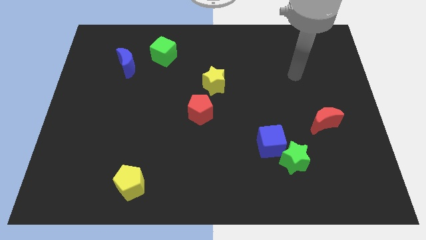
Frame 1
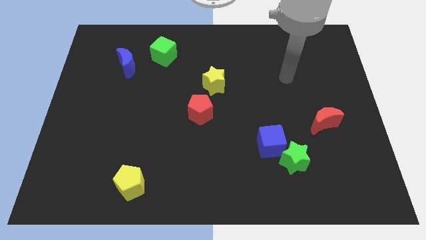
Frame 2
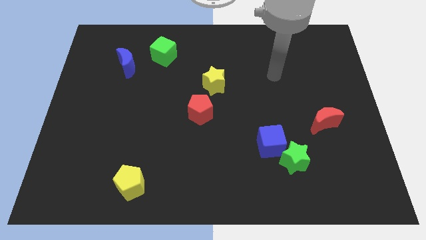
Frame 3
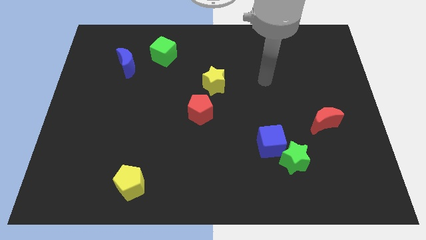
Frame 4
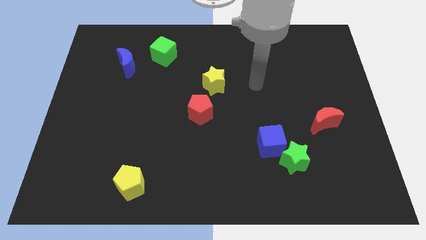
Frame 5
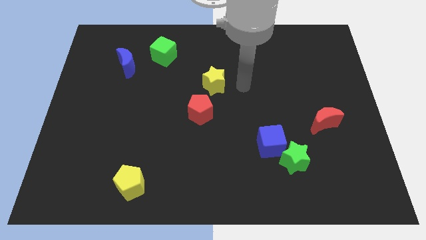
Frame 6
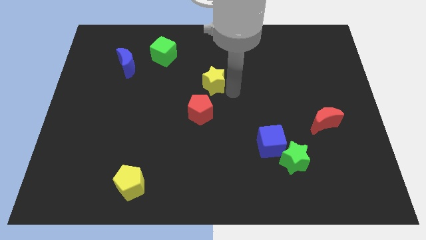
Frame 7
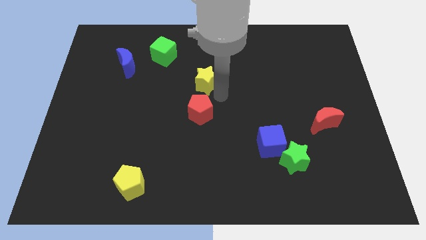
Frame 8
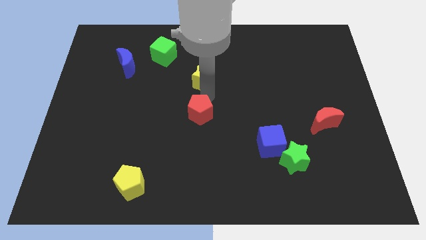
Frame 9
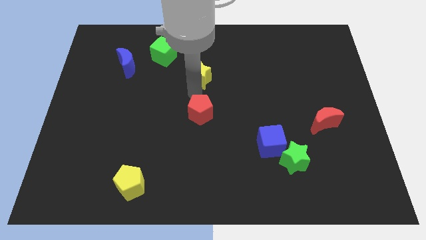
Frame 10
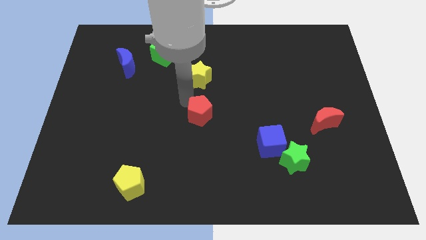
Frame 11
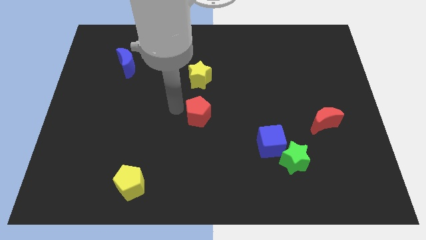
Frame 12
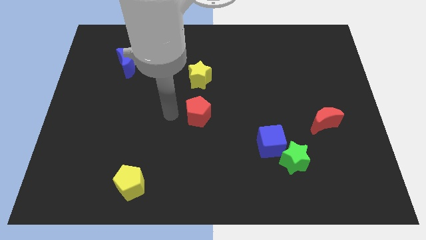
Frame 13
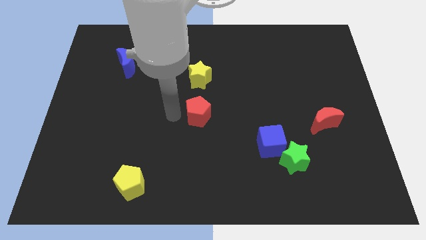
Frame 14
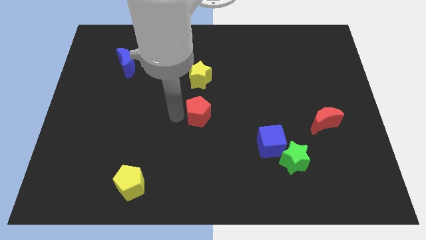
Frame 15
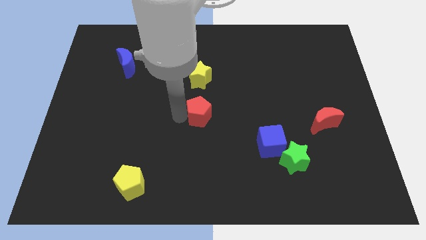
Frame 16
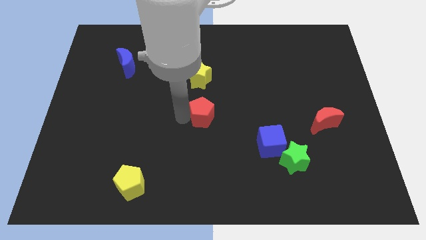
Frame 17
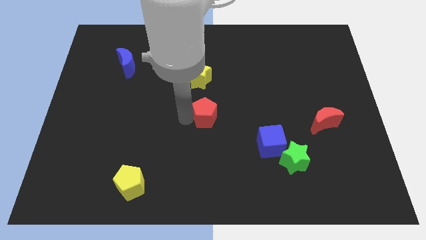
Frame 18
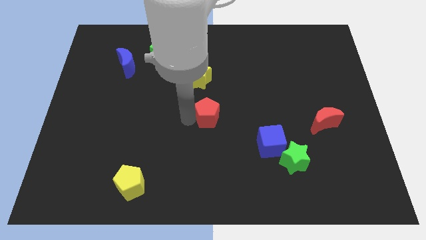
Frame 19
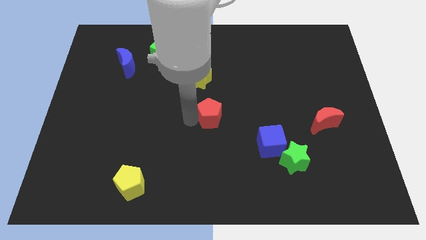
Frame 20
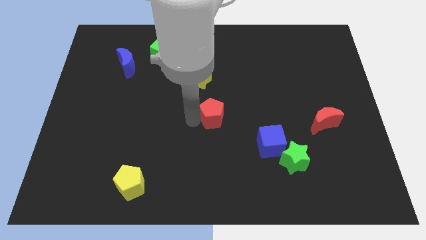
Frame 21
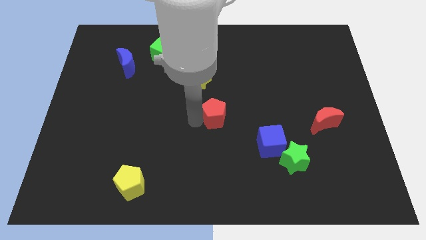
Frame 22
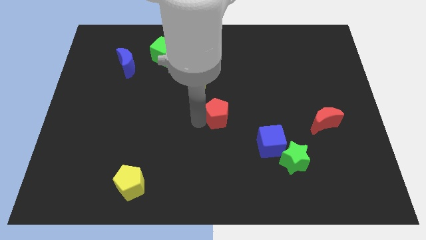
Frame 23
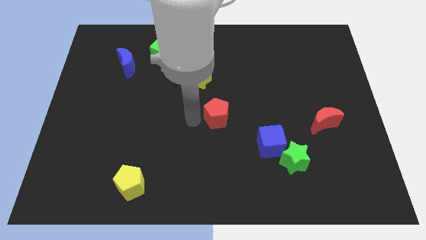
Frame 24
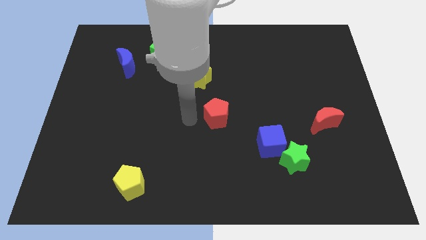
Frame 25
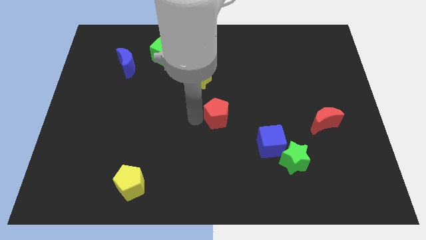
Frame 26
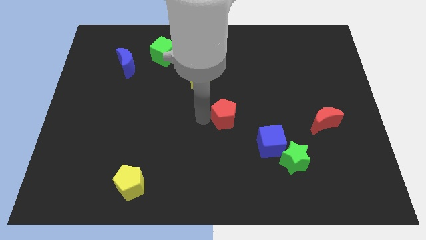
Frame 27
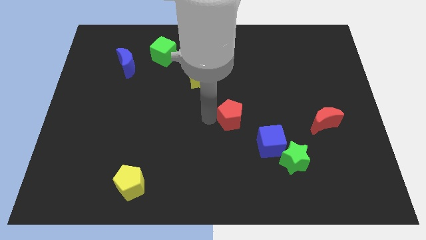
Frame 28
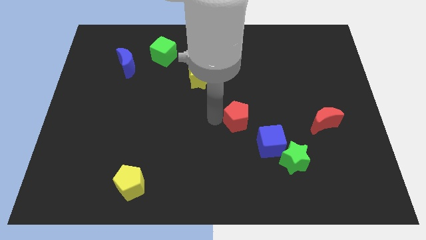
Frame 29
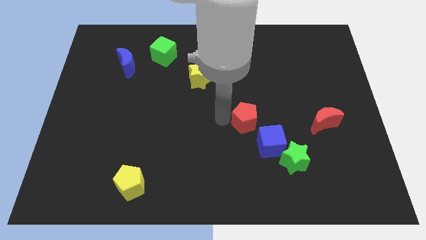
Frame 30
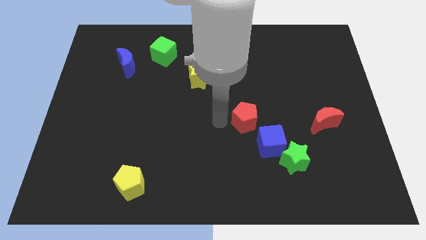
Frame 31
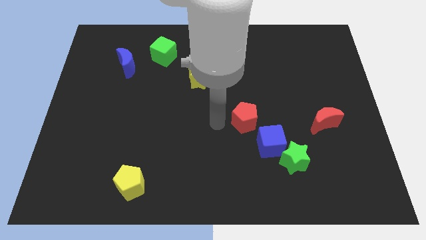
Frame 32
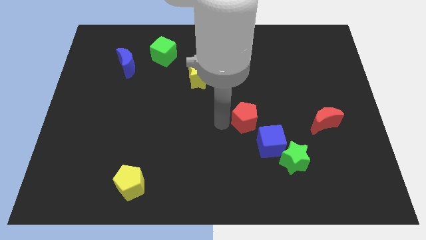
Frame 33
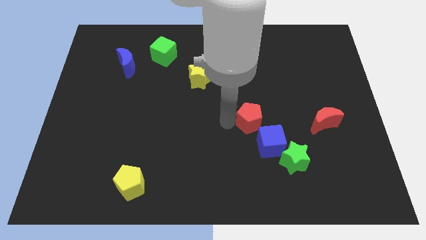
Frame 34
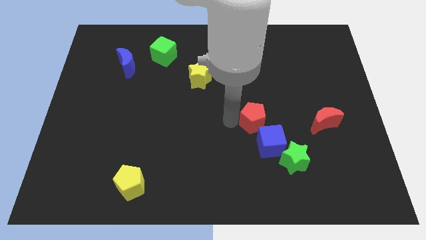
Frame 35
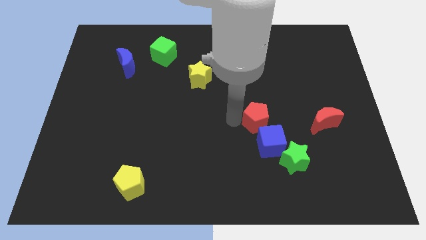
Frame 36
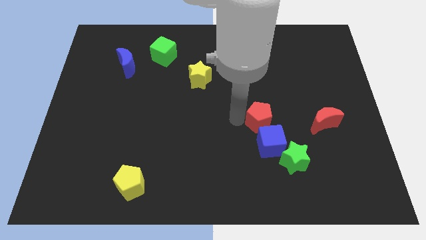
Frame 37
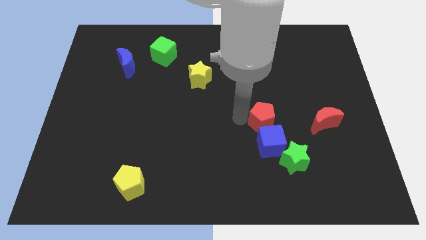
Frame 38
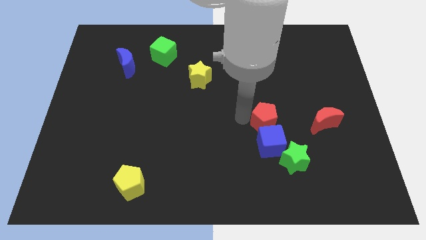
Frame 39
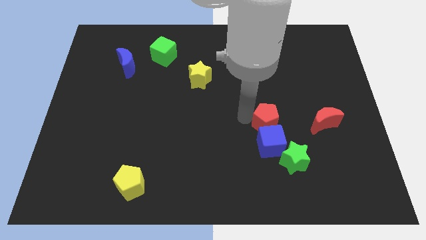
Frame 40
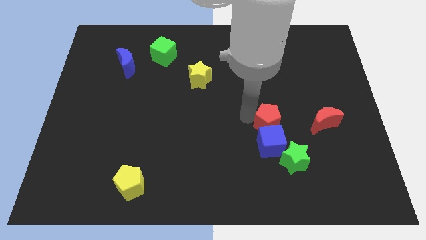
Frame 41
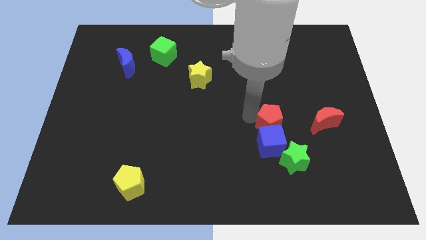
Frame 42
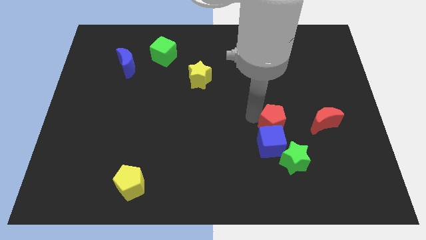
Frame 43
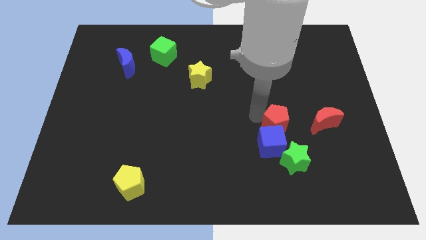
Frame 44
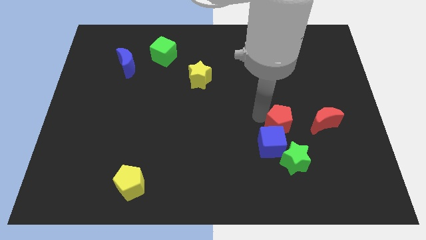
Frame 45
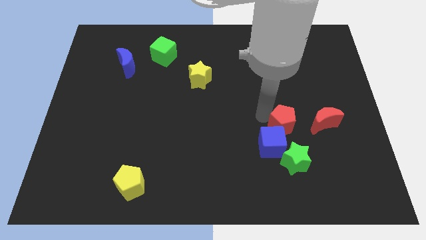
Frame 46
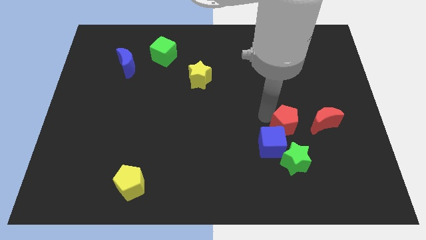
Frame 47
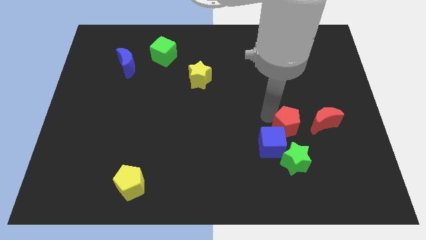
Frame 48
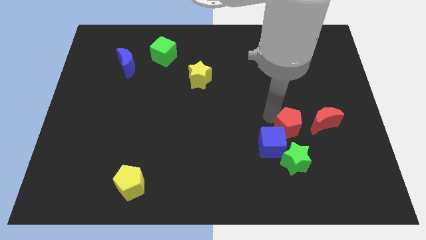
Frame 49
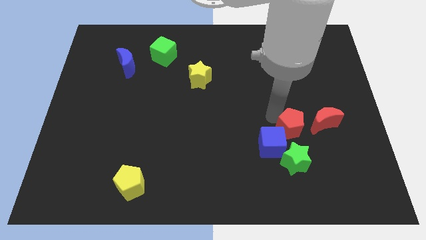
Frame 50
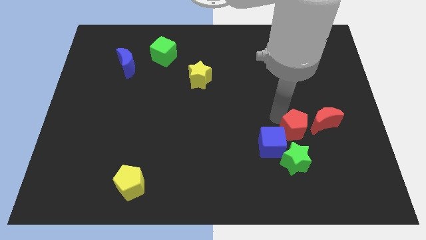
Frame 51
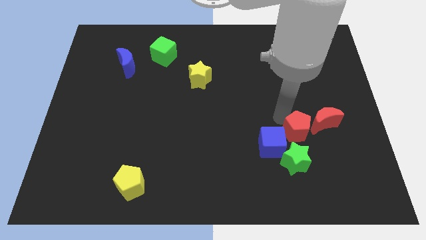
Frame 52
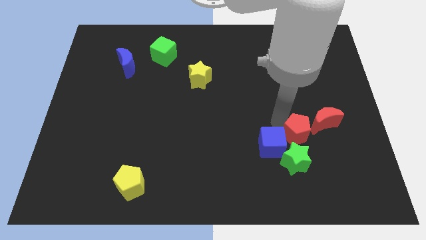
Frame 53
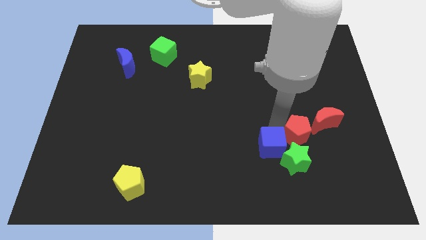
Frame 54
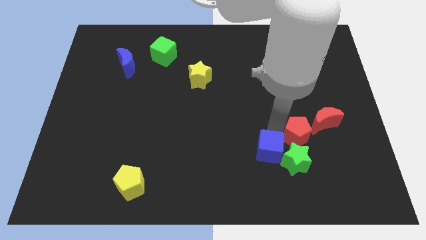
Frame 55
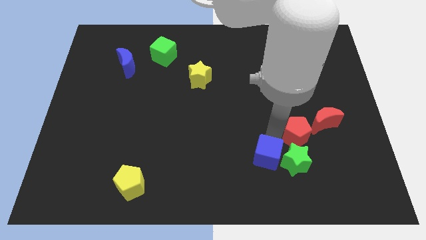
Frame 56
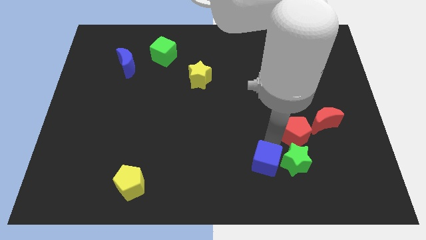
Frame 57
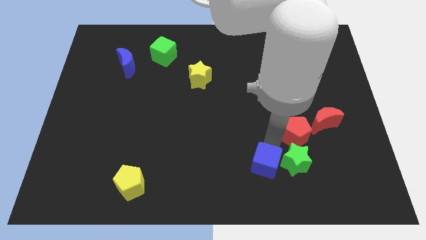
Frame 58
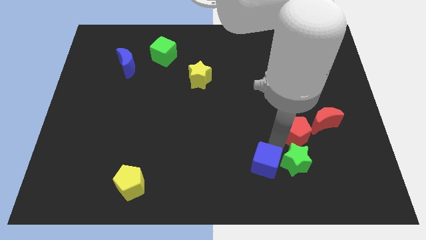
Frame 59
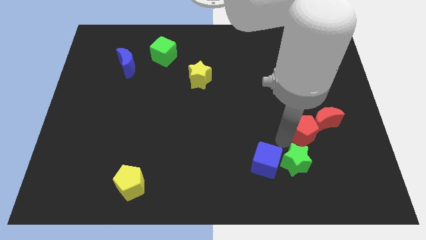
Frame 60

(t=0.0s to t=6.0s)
put the red pentagon close to the red moon

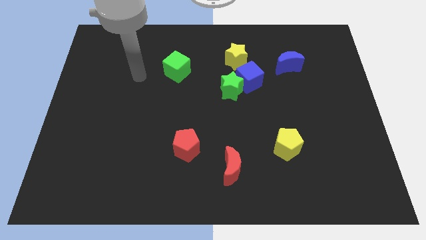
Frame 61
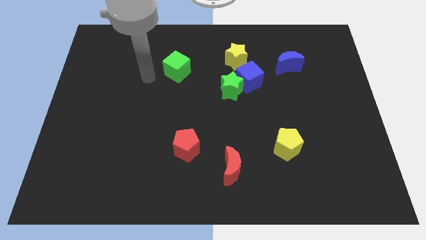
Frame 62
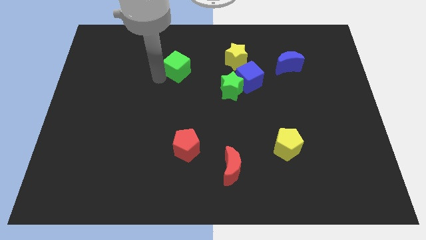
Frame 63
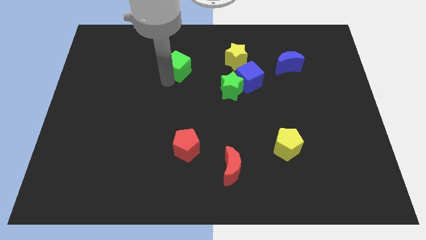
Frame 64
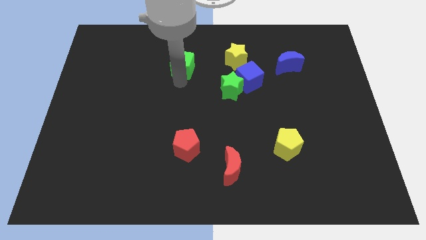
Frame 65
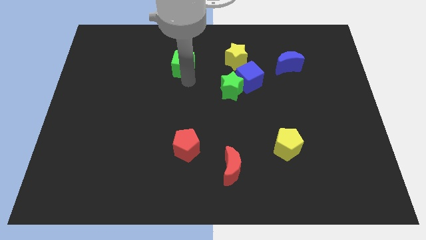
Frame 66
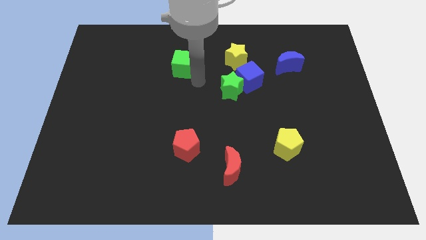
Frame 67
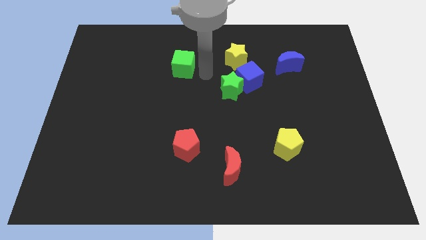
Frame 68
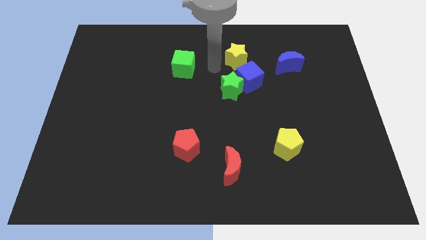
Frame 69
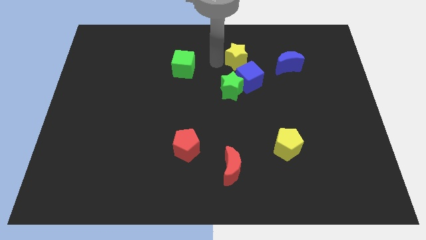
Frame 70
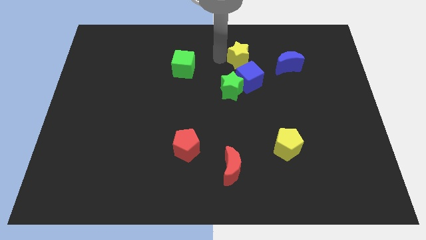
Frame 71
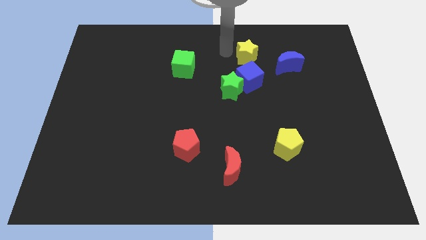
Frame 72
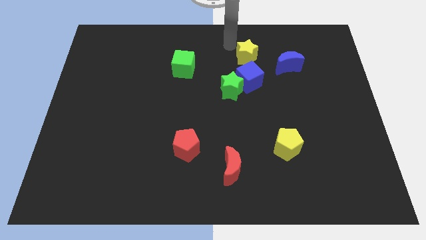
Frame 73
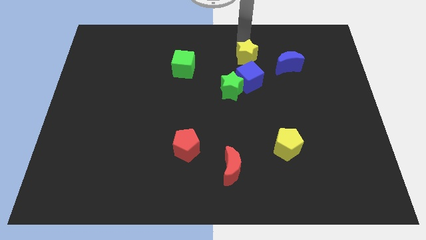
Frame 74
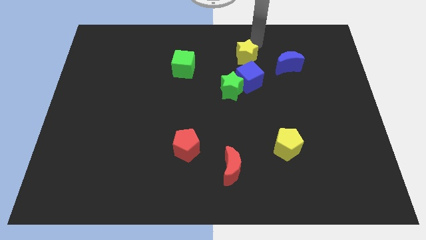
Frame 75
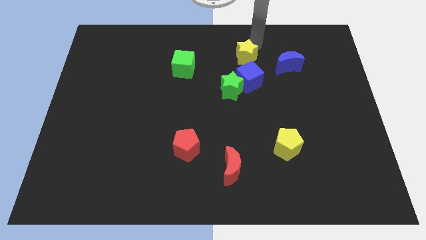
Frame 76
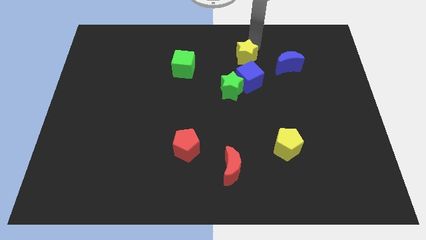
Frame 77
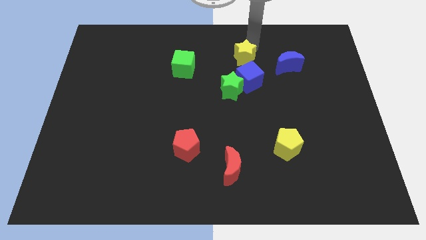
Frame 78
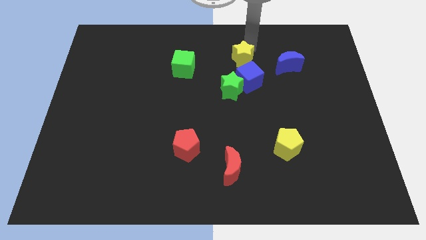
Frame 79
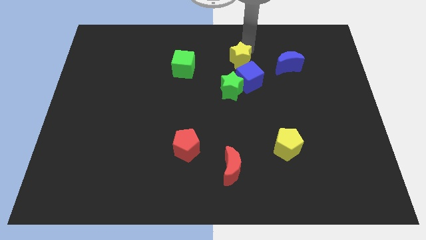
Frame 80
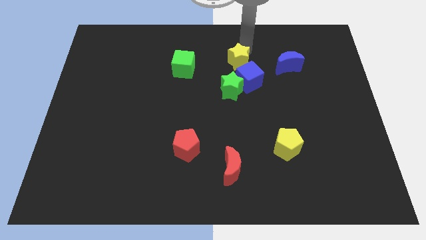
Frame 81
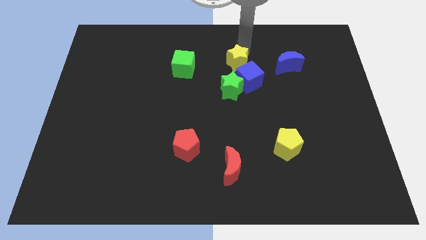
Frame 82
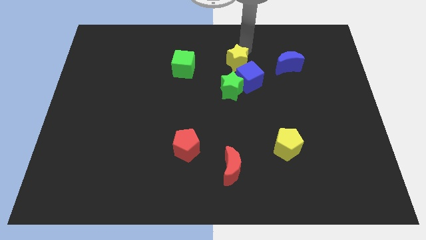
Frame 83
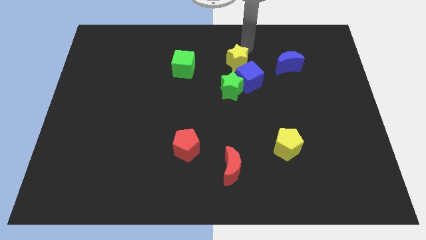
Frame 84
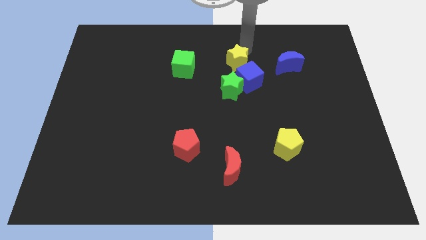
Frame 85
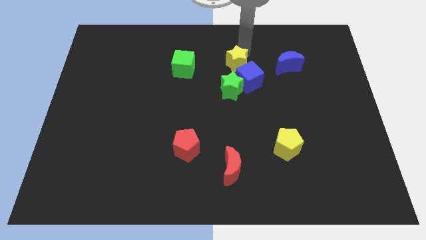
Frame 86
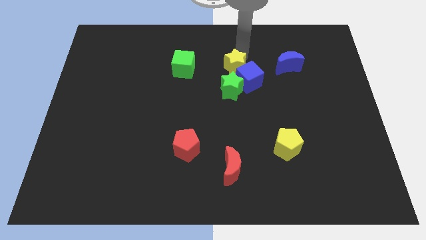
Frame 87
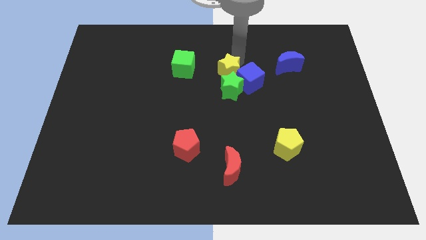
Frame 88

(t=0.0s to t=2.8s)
push the yellow star to the green star
